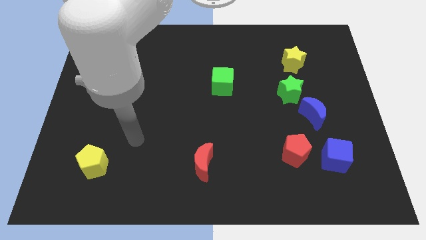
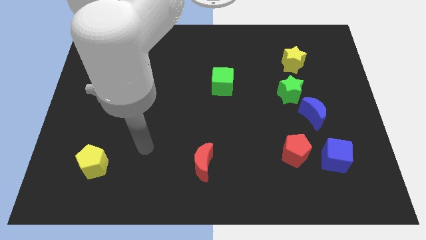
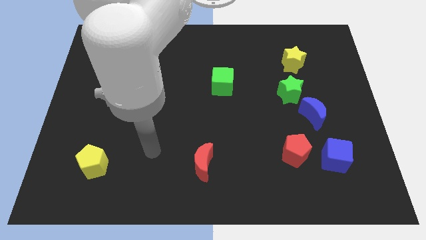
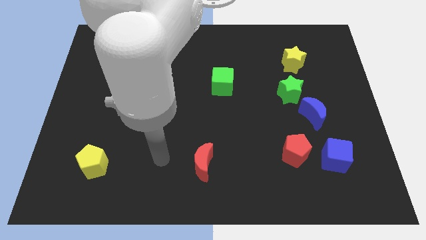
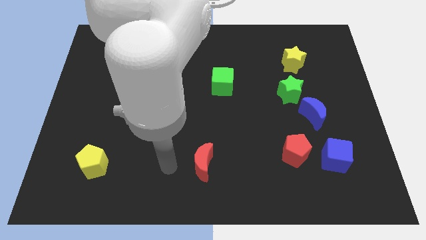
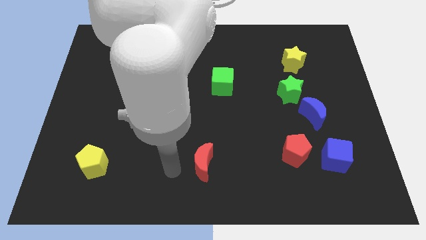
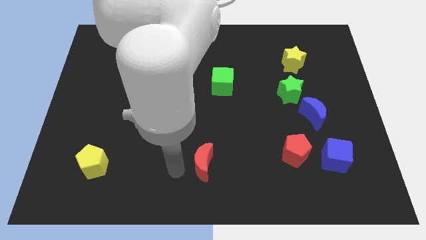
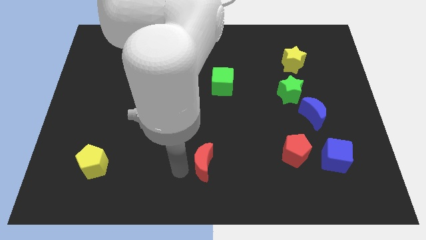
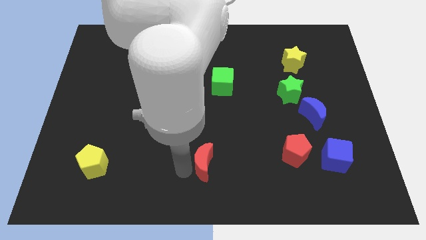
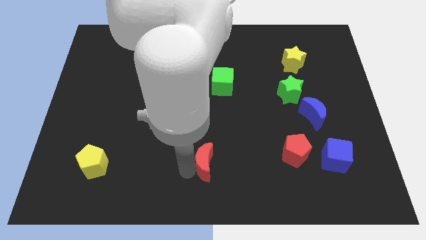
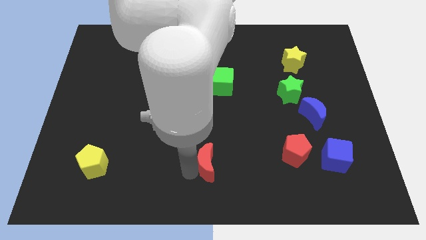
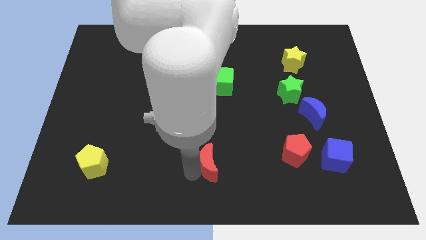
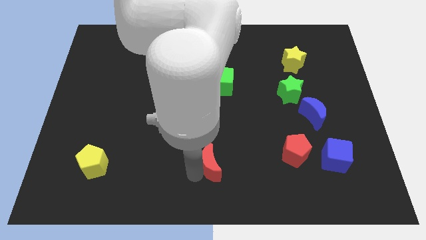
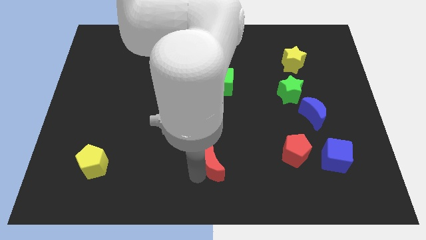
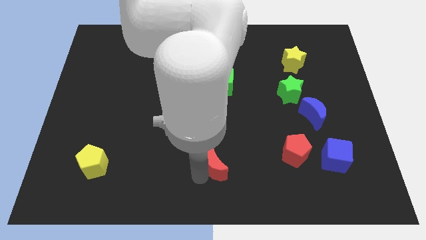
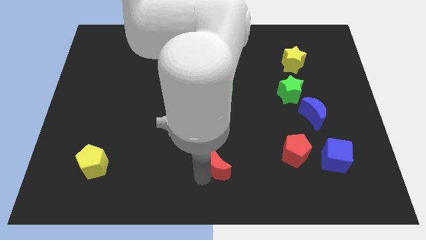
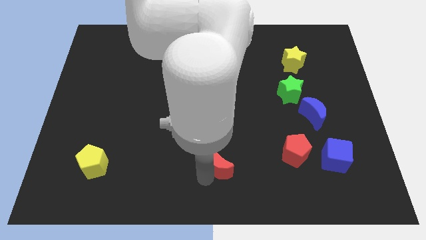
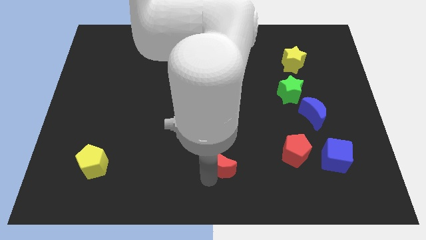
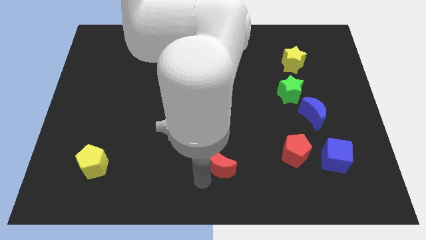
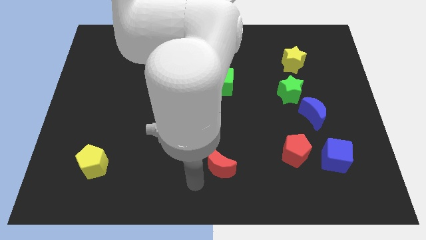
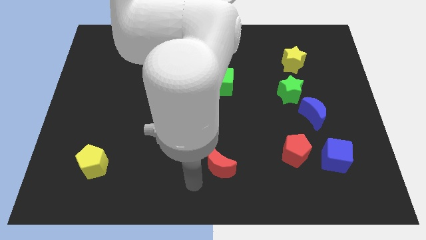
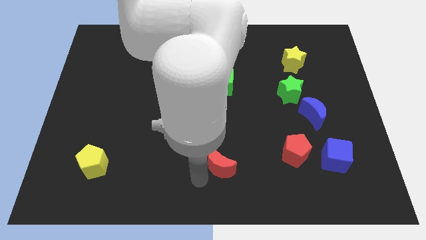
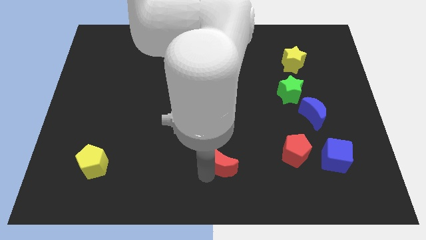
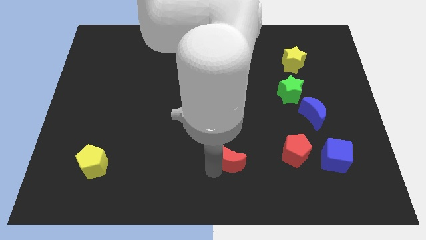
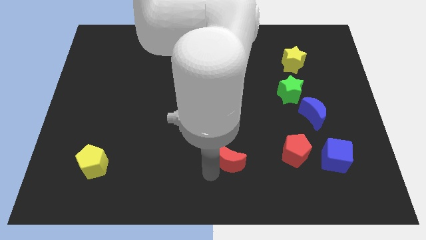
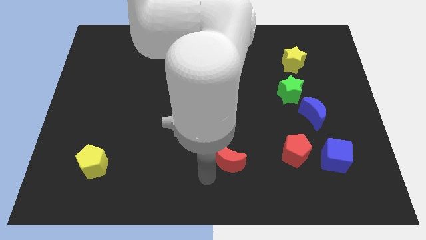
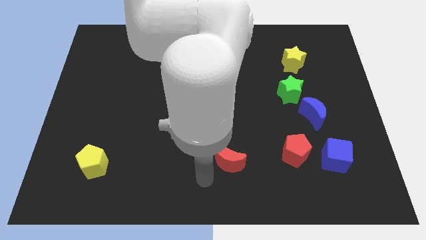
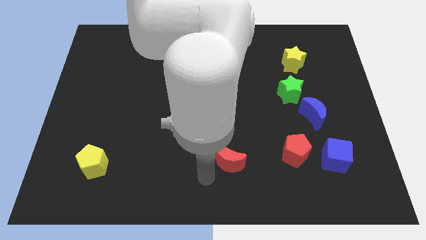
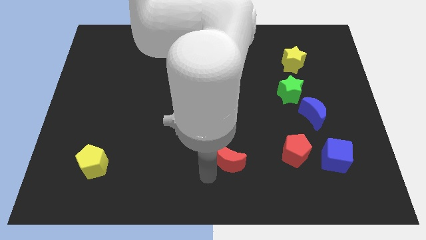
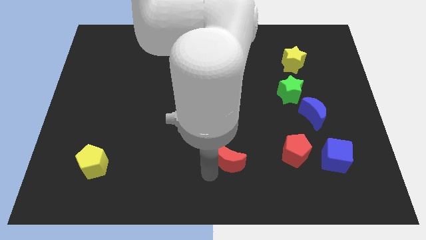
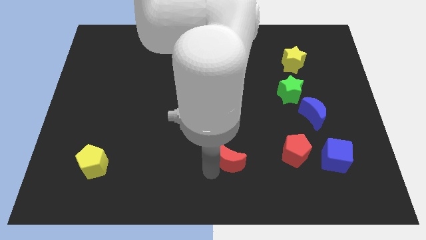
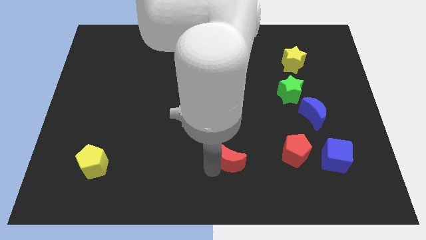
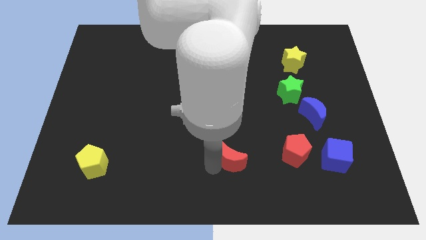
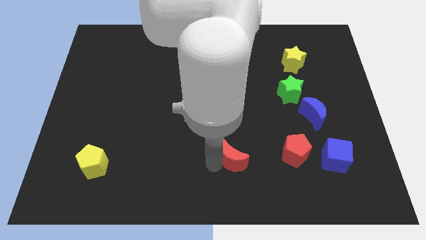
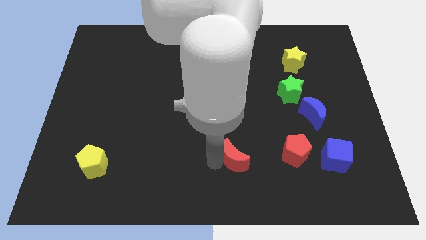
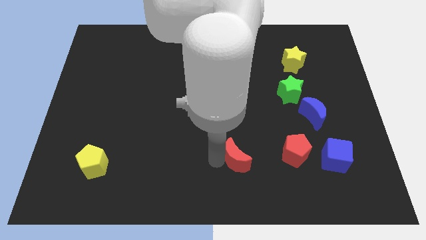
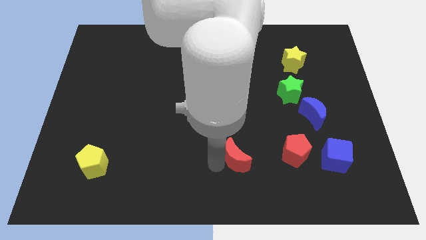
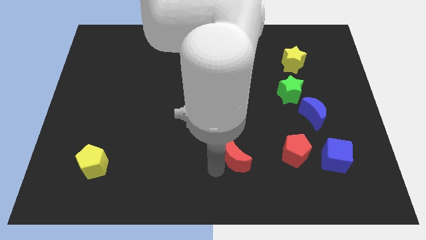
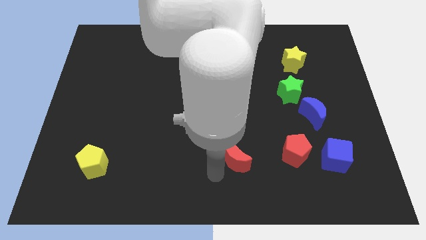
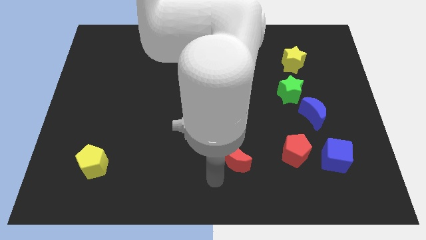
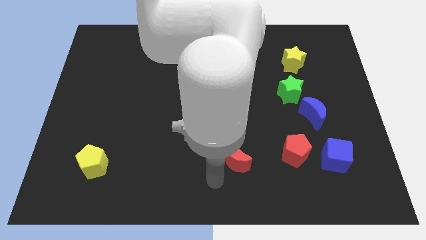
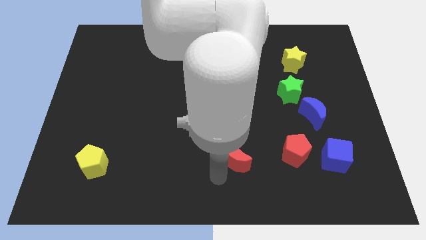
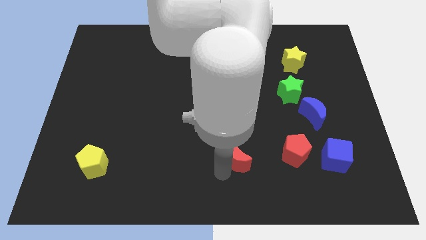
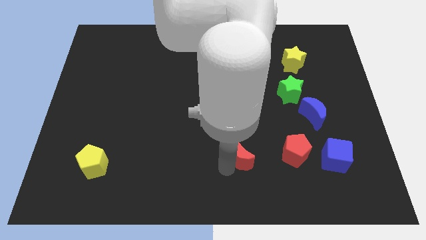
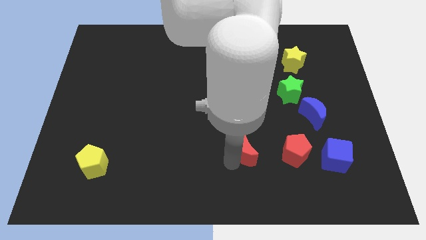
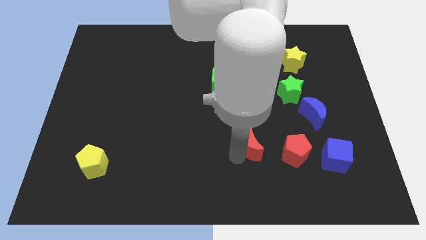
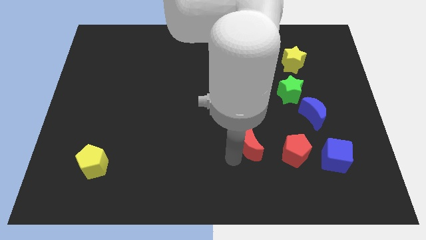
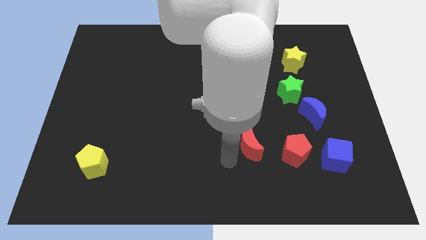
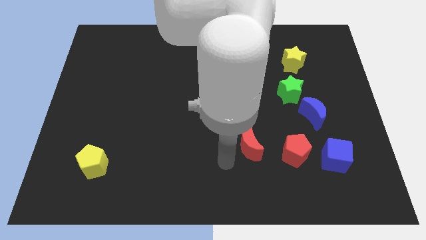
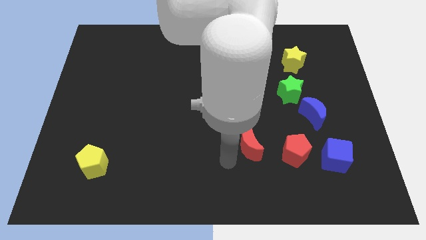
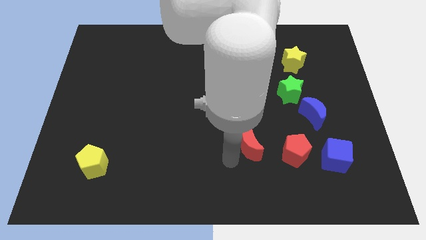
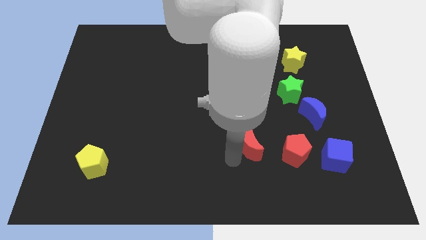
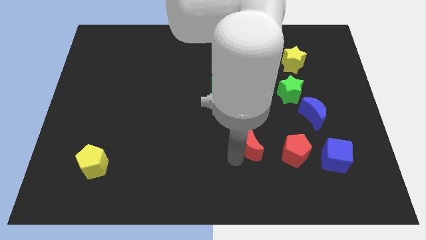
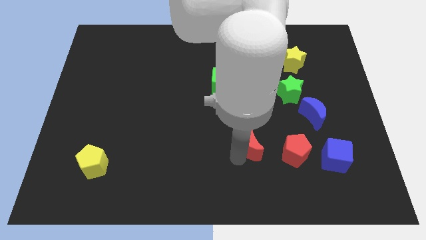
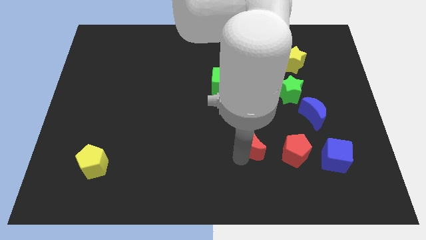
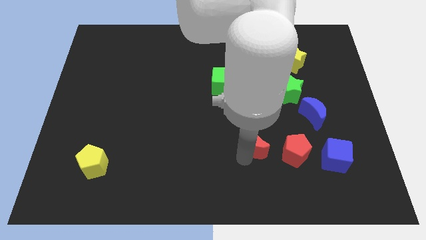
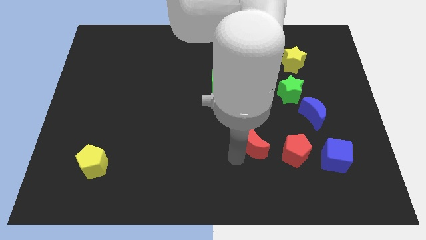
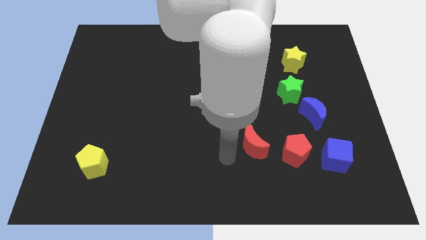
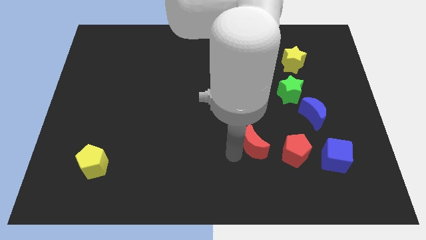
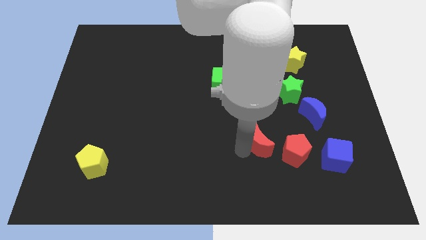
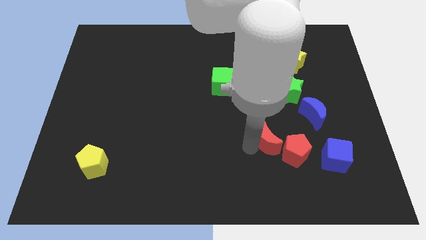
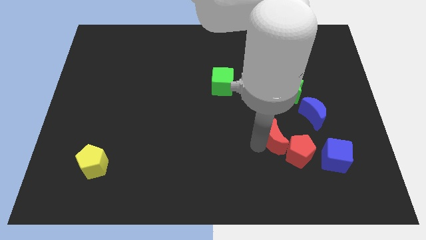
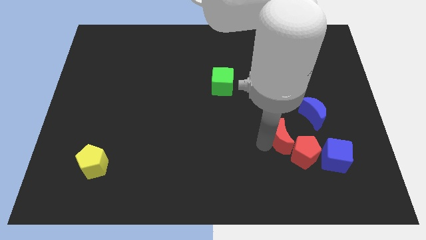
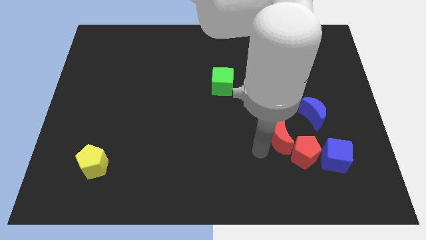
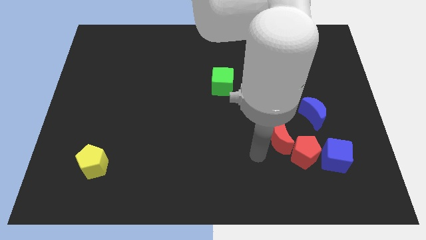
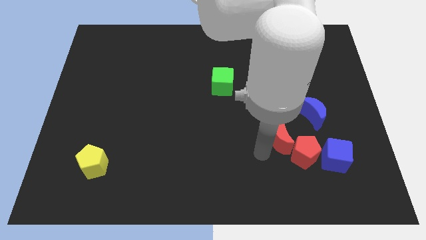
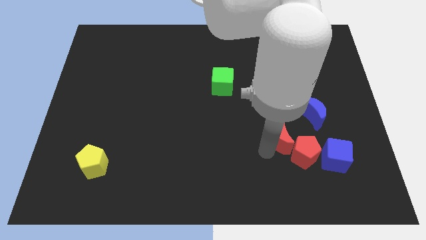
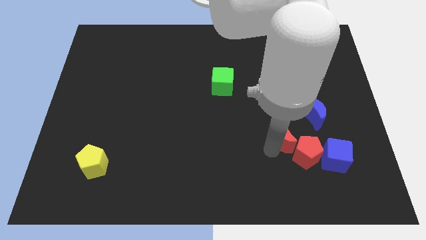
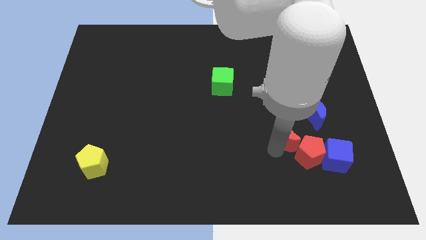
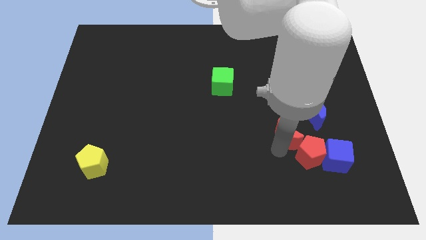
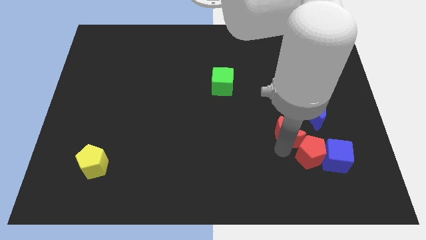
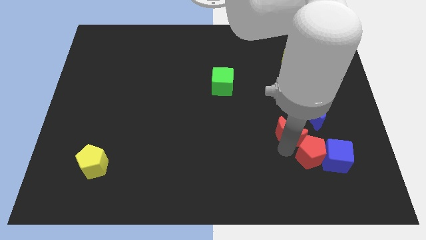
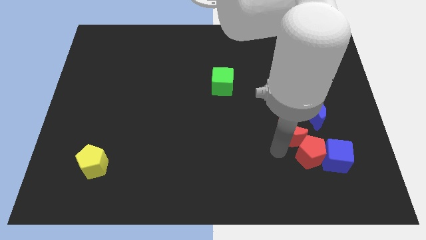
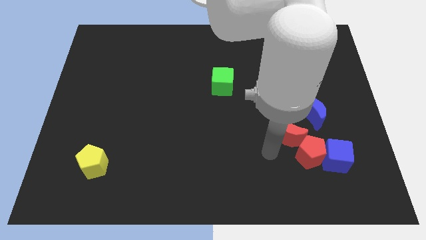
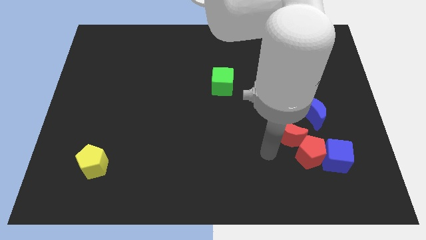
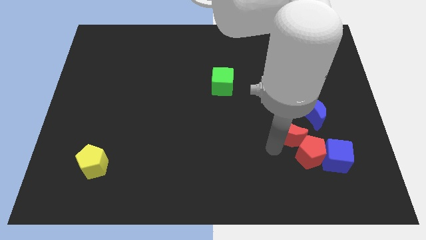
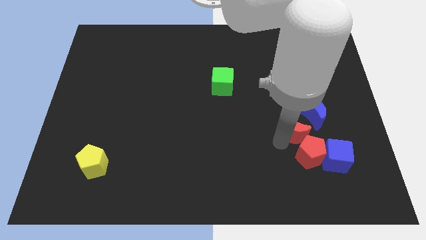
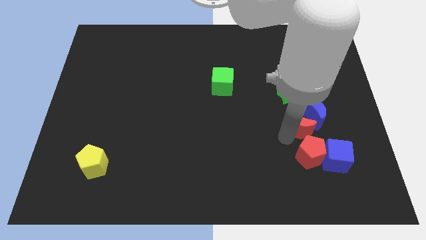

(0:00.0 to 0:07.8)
push the red moon towards the blue moon
